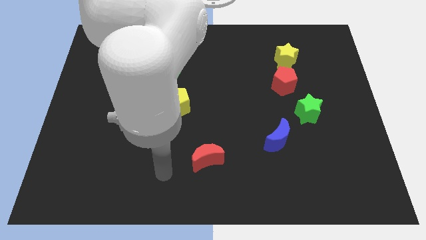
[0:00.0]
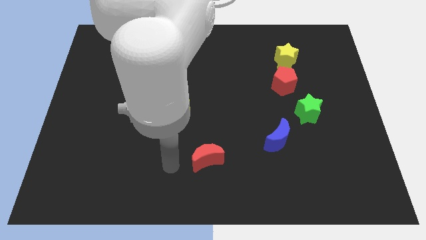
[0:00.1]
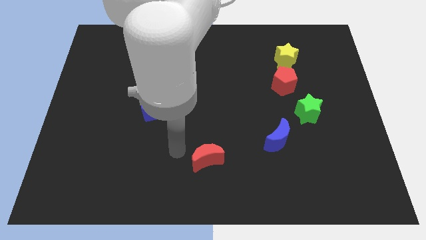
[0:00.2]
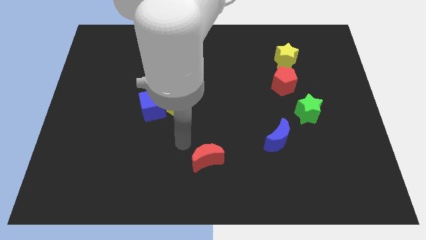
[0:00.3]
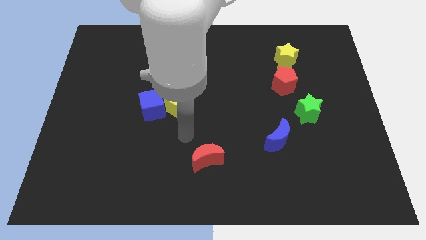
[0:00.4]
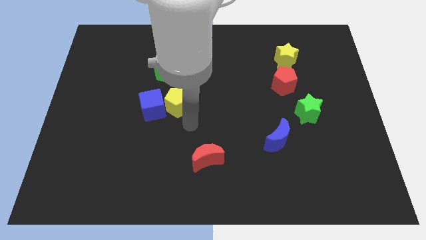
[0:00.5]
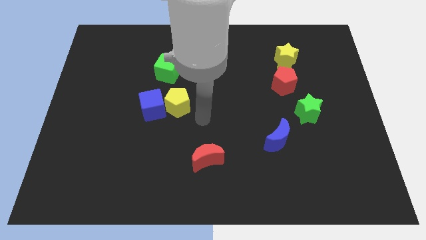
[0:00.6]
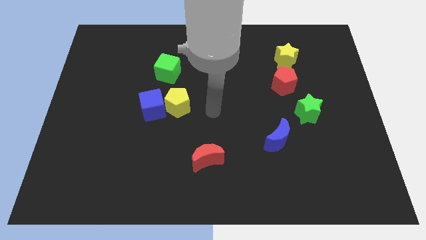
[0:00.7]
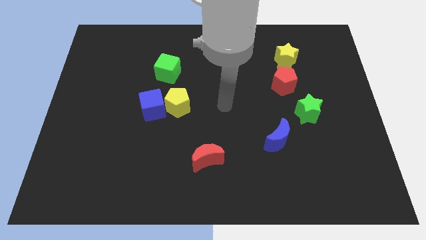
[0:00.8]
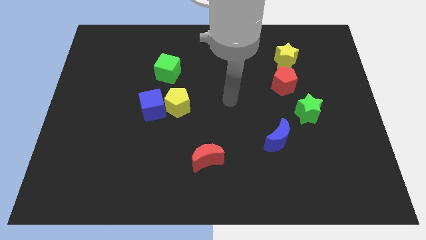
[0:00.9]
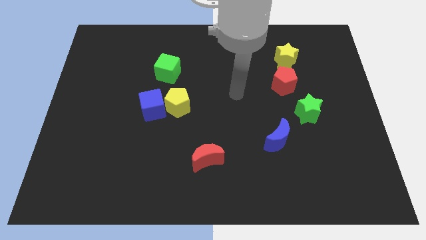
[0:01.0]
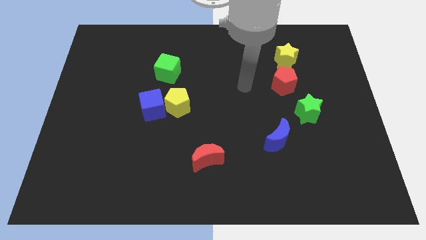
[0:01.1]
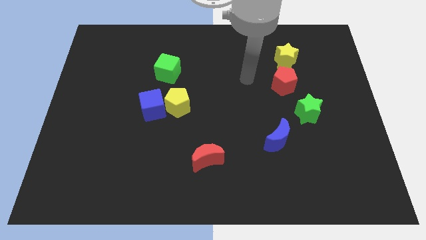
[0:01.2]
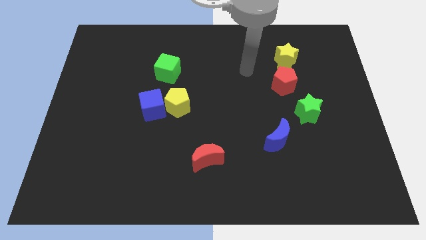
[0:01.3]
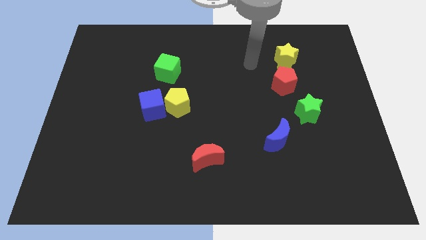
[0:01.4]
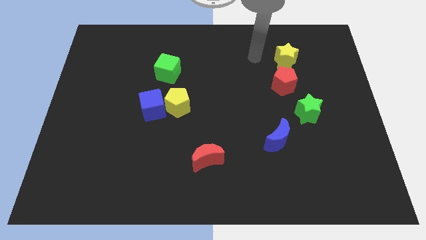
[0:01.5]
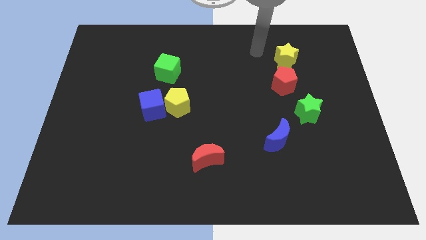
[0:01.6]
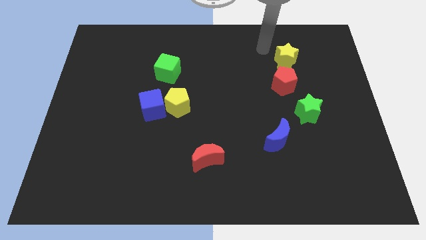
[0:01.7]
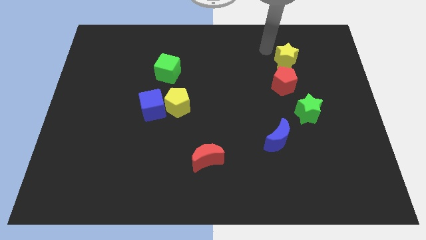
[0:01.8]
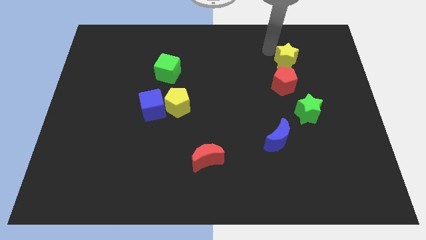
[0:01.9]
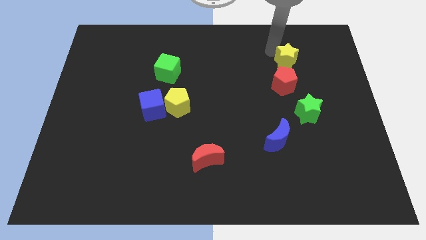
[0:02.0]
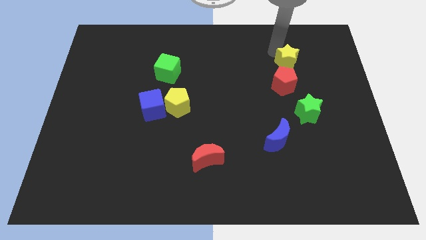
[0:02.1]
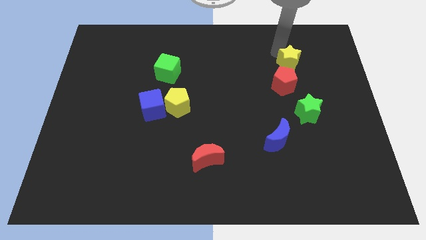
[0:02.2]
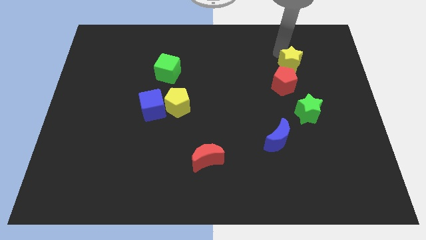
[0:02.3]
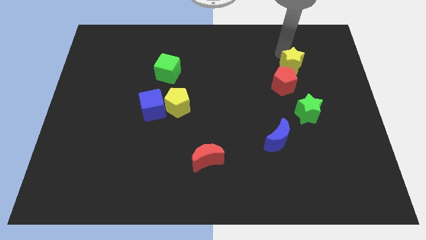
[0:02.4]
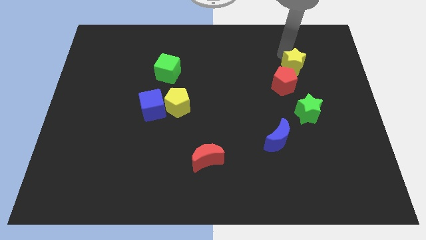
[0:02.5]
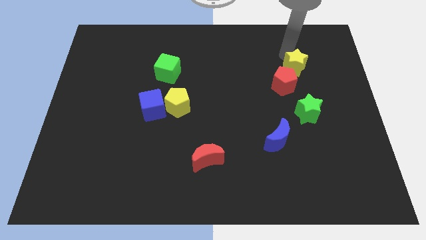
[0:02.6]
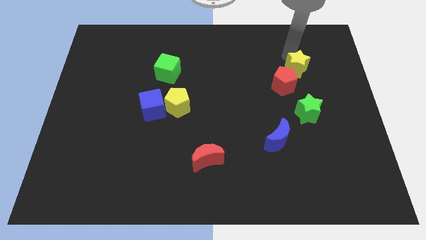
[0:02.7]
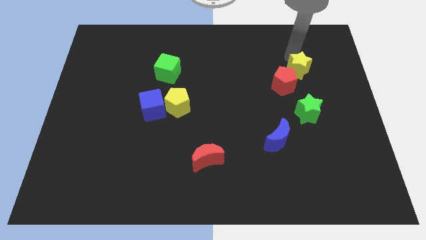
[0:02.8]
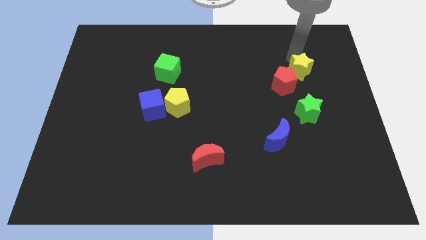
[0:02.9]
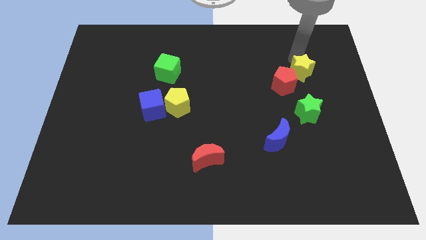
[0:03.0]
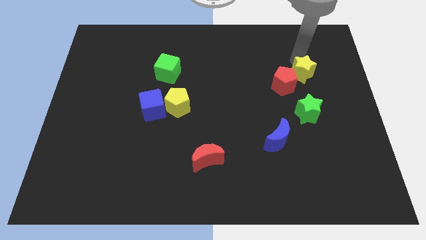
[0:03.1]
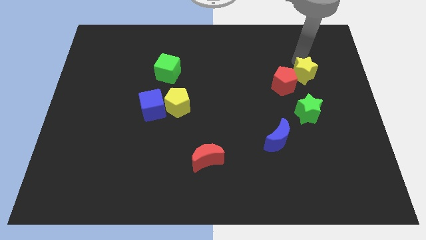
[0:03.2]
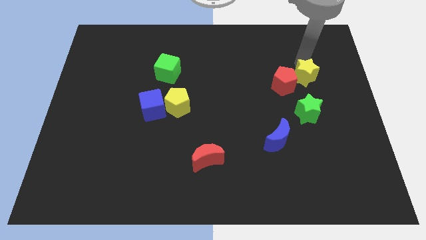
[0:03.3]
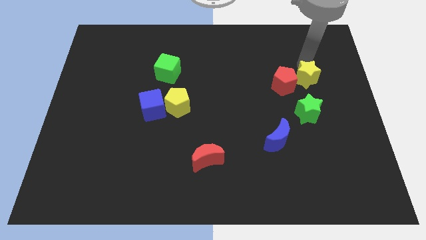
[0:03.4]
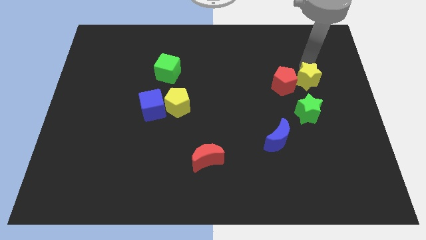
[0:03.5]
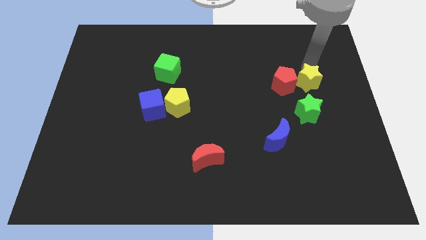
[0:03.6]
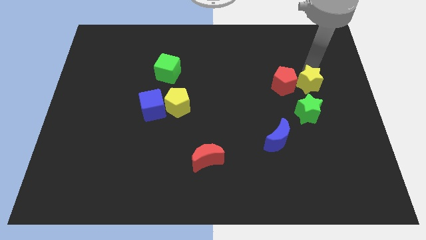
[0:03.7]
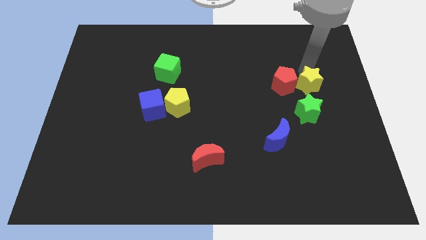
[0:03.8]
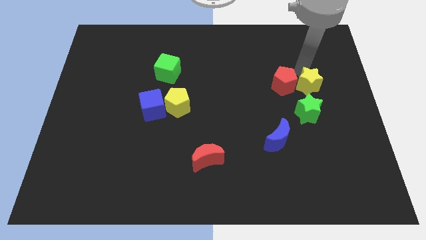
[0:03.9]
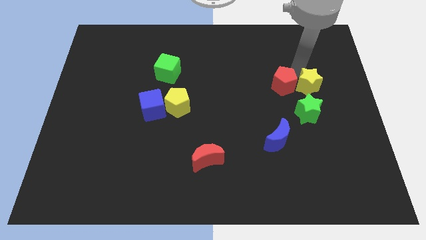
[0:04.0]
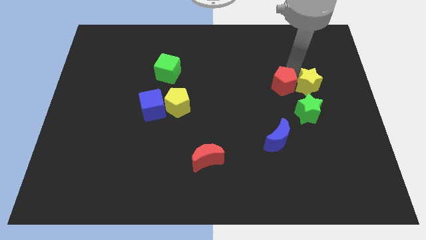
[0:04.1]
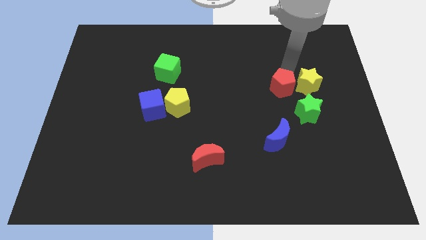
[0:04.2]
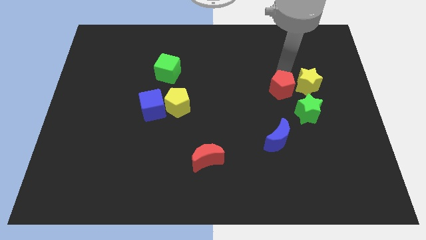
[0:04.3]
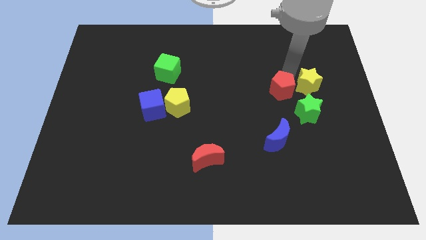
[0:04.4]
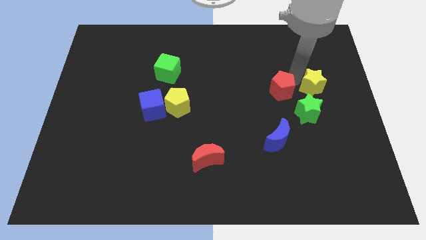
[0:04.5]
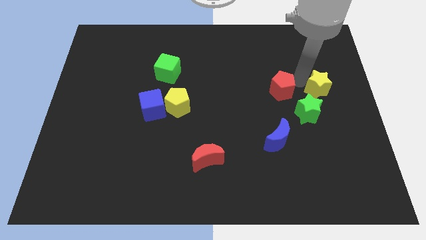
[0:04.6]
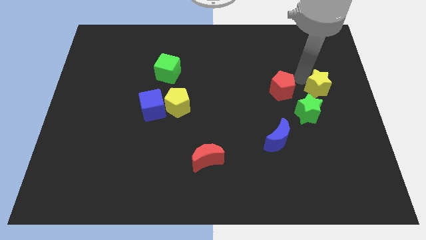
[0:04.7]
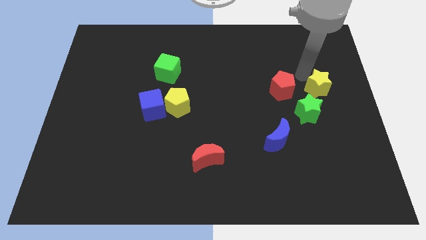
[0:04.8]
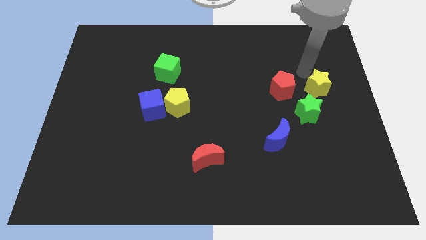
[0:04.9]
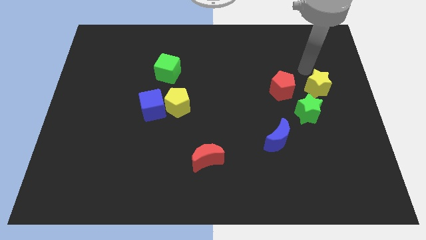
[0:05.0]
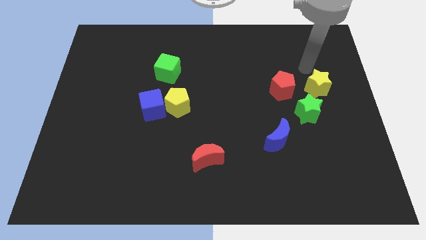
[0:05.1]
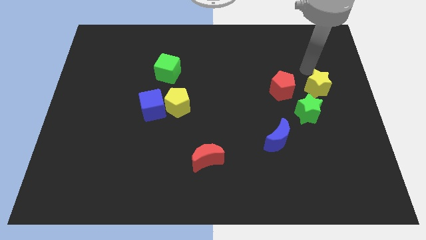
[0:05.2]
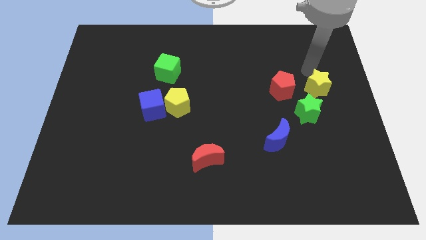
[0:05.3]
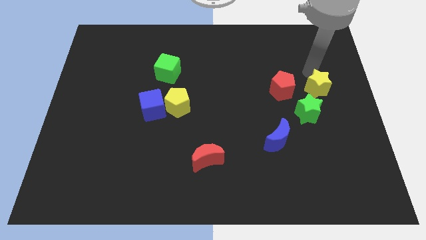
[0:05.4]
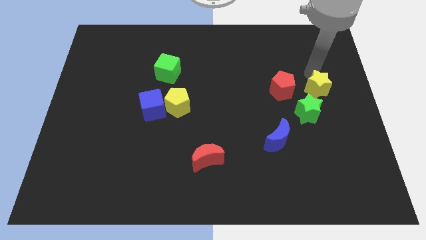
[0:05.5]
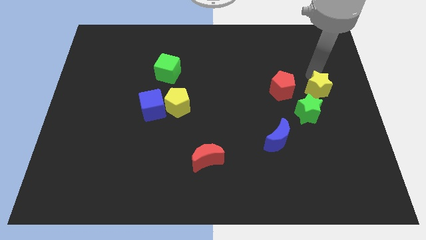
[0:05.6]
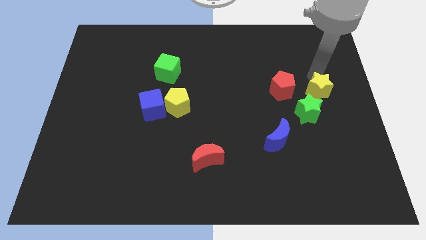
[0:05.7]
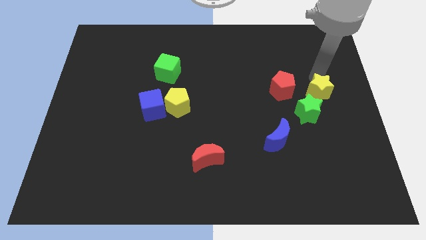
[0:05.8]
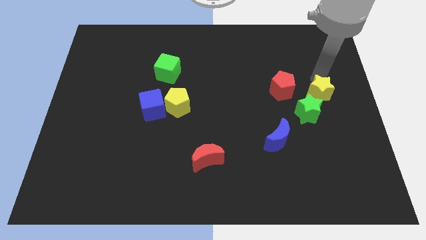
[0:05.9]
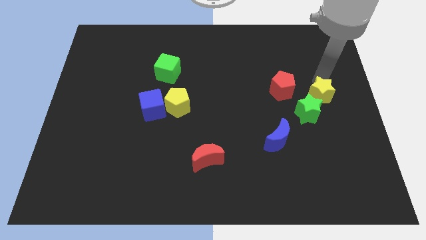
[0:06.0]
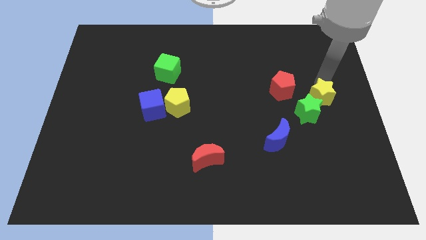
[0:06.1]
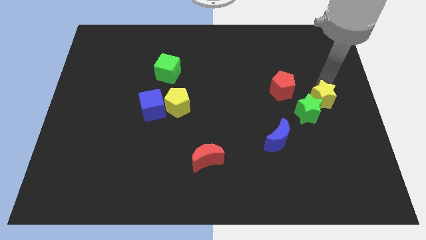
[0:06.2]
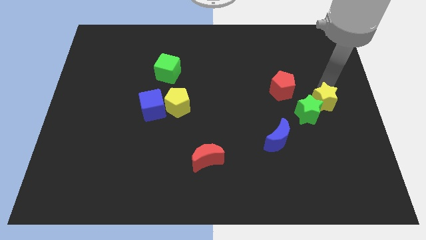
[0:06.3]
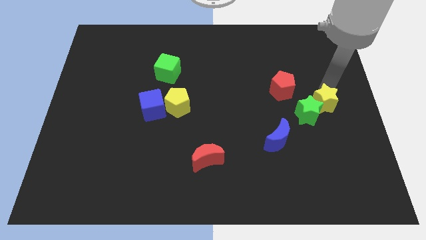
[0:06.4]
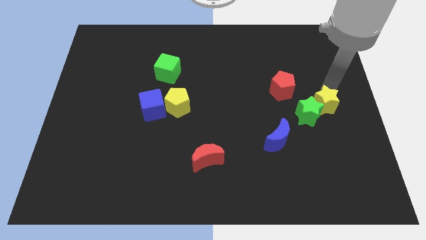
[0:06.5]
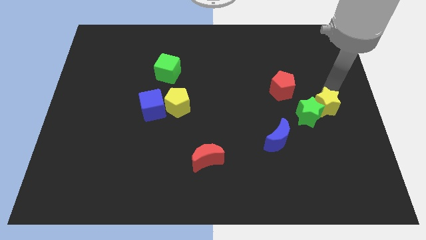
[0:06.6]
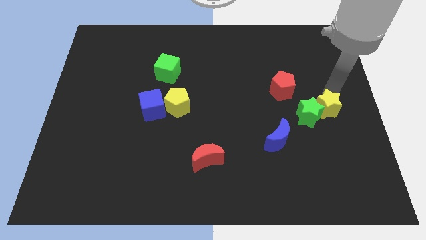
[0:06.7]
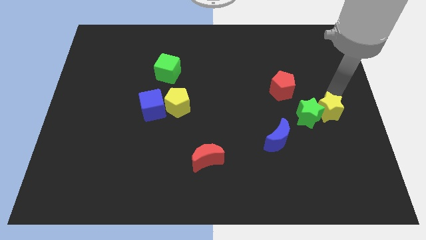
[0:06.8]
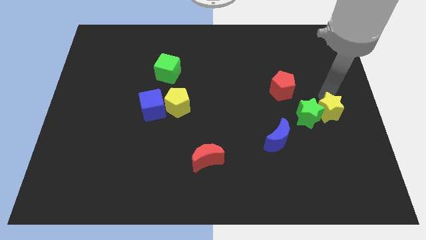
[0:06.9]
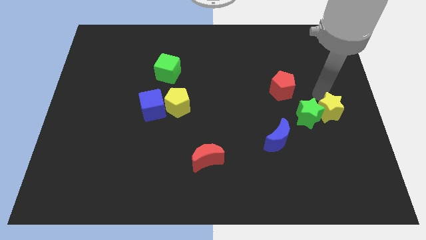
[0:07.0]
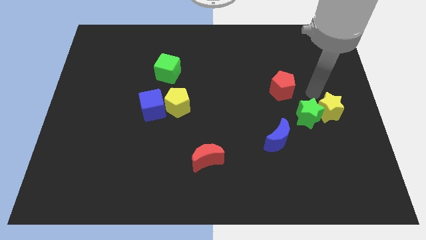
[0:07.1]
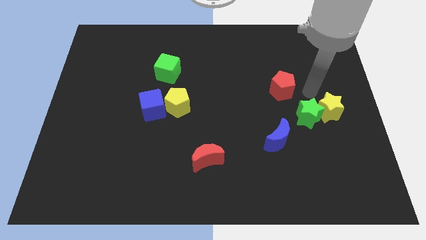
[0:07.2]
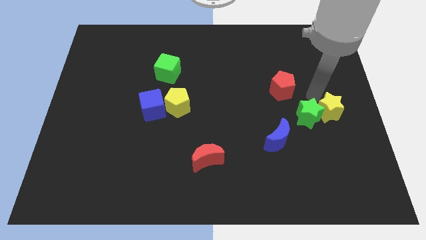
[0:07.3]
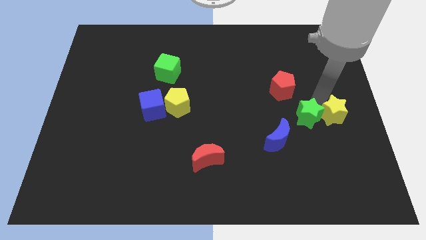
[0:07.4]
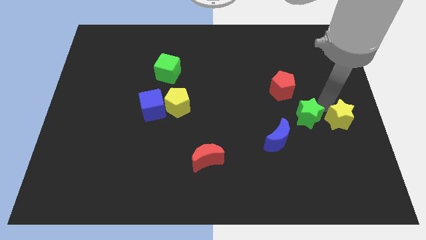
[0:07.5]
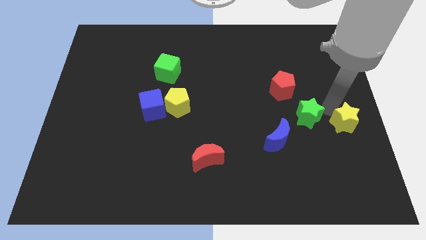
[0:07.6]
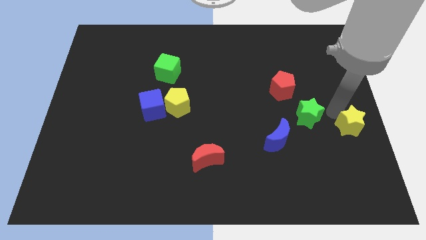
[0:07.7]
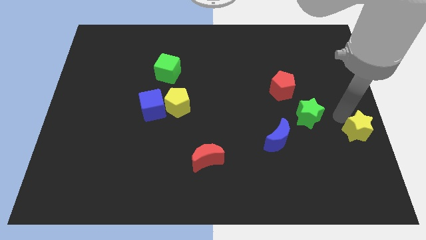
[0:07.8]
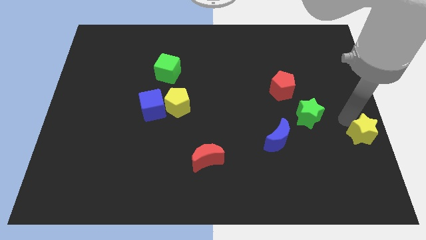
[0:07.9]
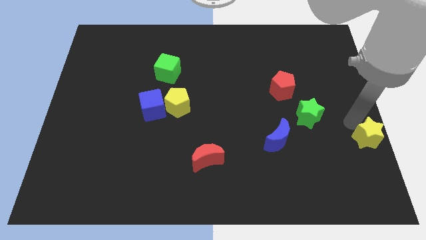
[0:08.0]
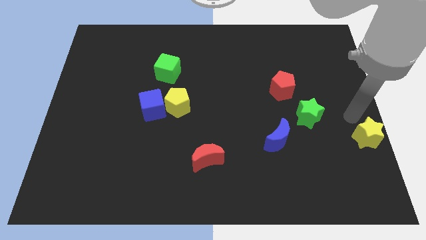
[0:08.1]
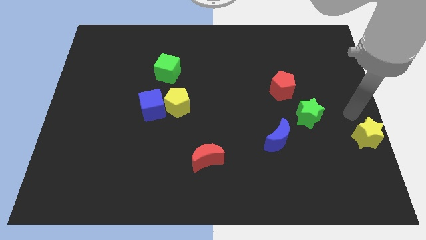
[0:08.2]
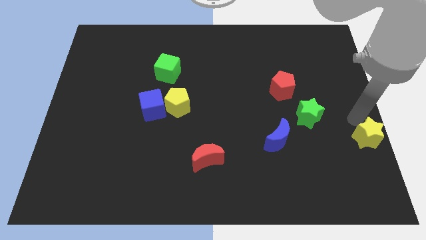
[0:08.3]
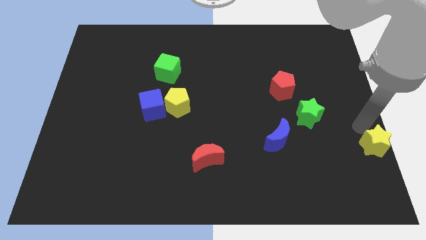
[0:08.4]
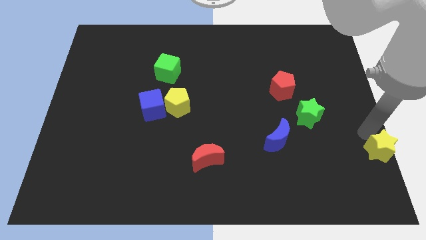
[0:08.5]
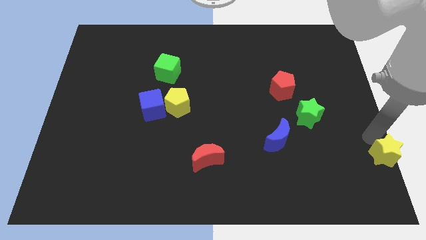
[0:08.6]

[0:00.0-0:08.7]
move the yellow star to the lower right corner
